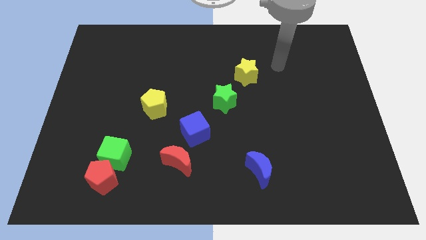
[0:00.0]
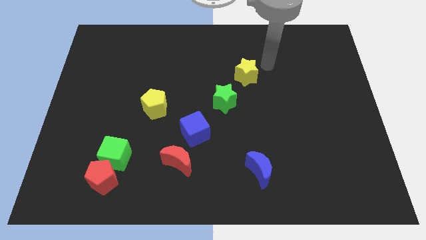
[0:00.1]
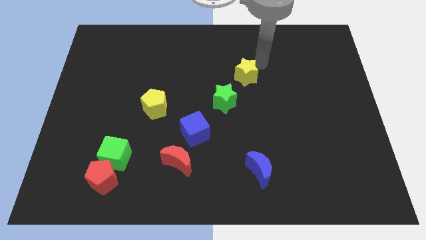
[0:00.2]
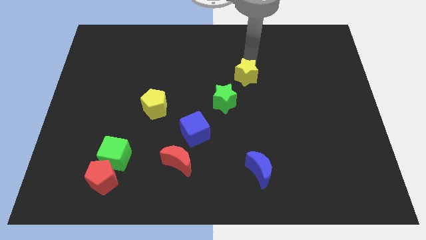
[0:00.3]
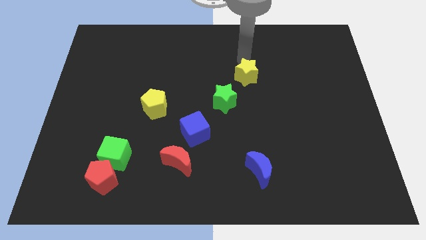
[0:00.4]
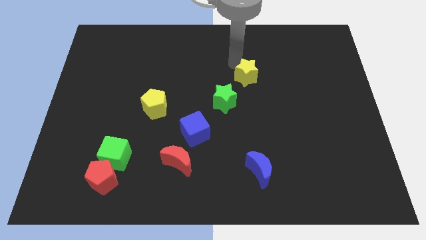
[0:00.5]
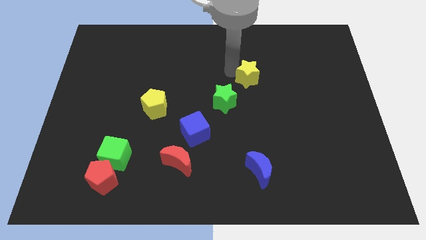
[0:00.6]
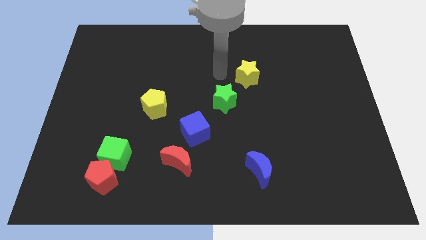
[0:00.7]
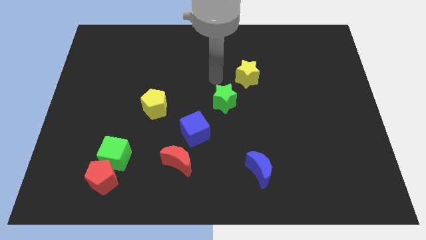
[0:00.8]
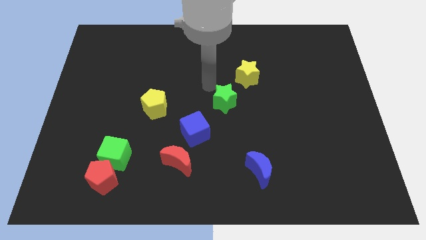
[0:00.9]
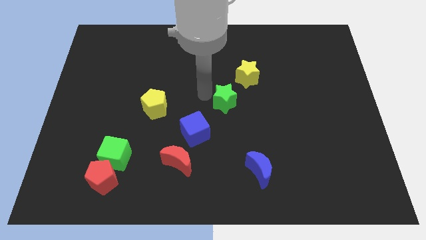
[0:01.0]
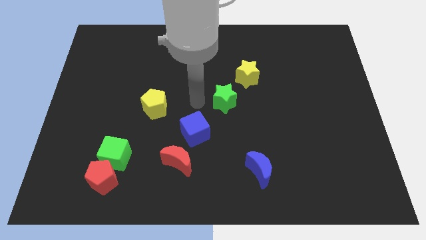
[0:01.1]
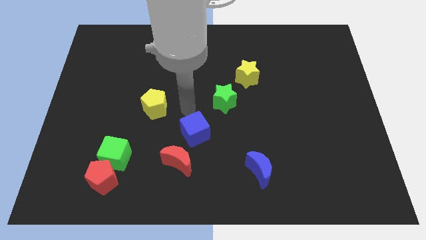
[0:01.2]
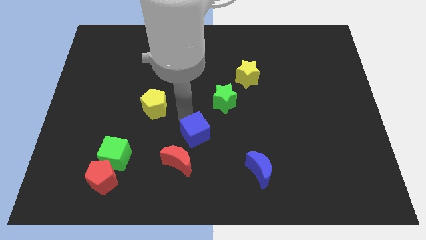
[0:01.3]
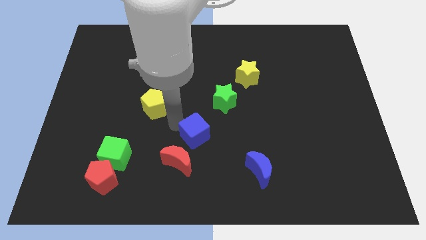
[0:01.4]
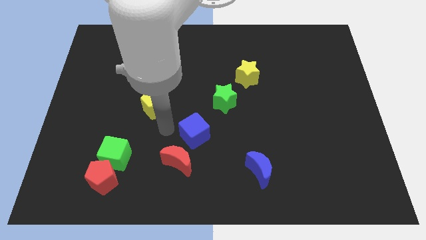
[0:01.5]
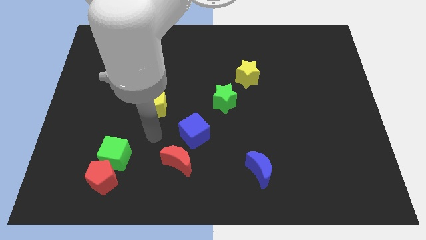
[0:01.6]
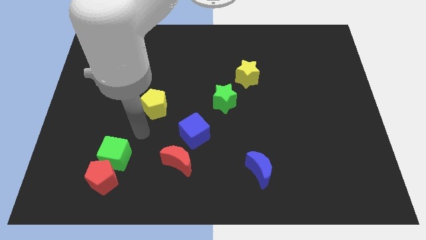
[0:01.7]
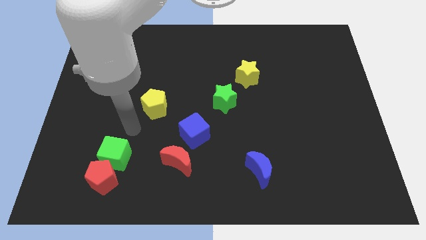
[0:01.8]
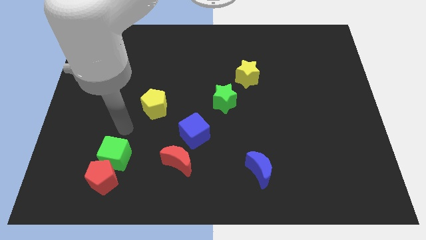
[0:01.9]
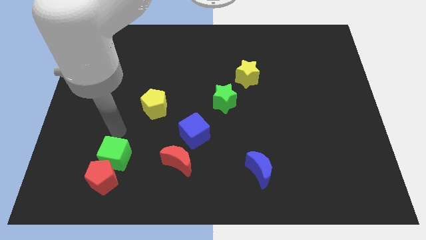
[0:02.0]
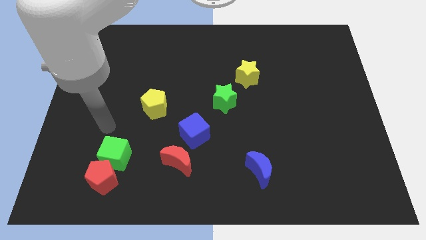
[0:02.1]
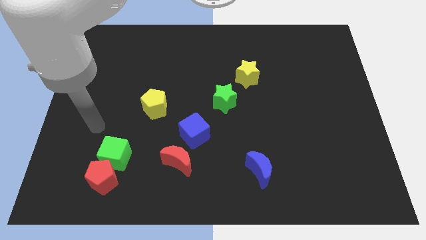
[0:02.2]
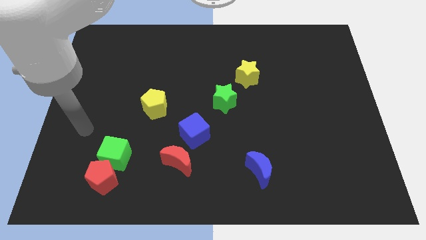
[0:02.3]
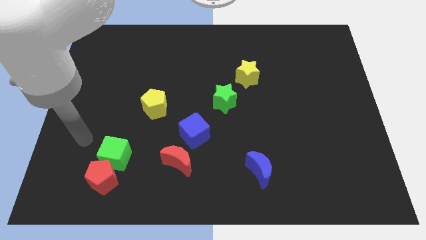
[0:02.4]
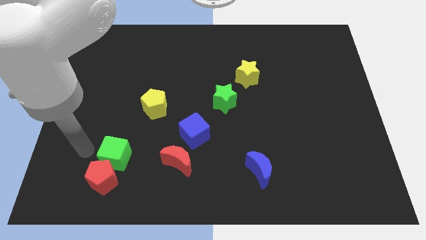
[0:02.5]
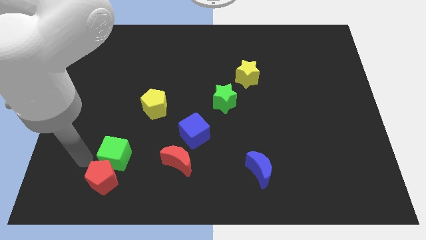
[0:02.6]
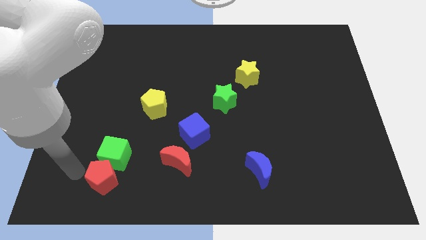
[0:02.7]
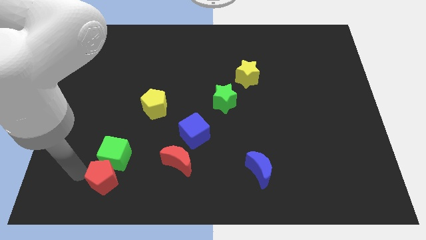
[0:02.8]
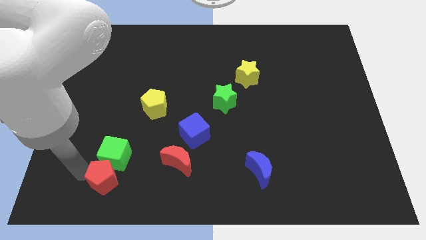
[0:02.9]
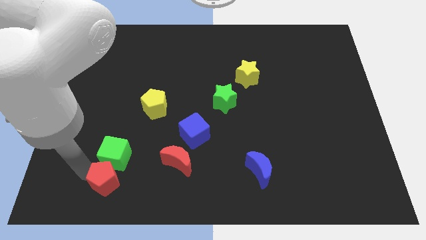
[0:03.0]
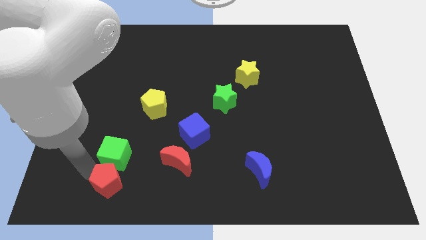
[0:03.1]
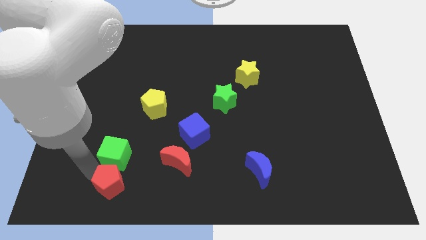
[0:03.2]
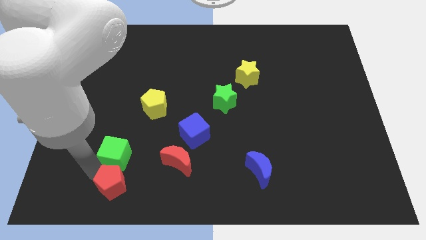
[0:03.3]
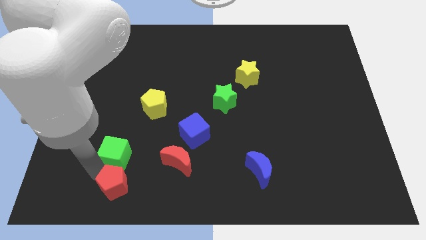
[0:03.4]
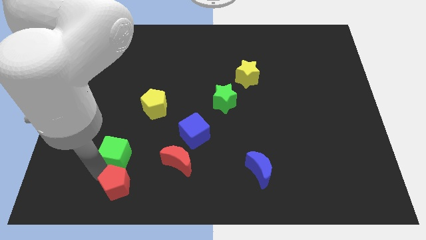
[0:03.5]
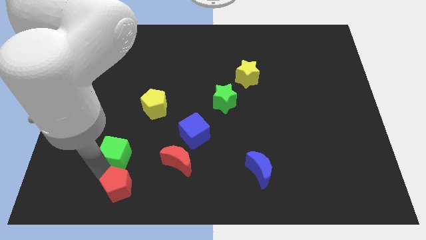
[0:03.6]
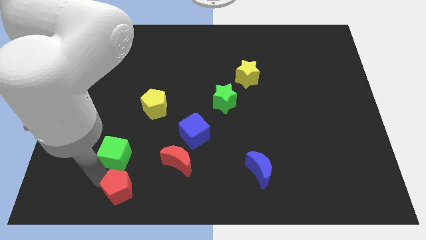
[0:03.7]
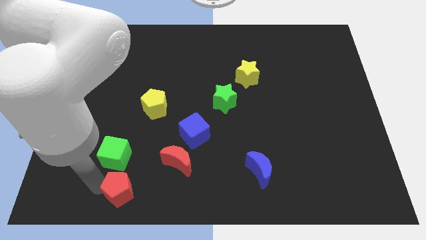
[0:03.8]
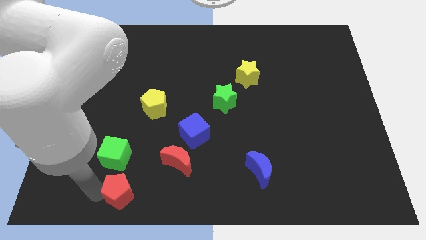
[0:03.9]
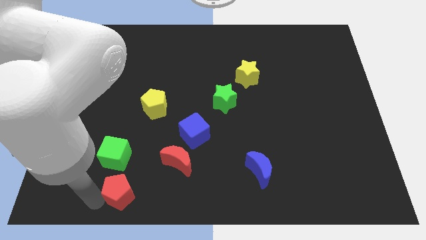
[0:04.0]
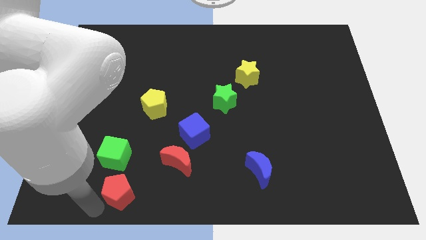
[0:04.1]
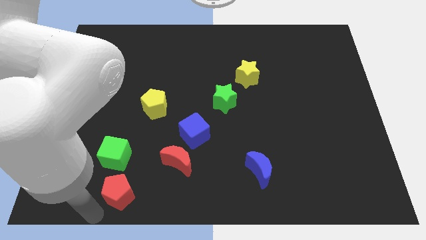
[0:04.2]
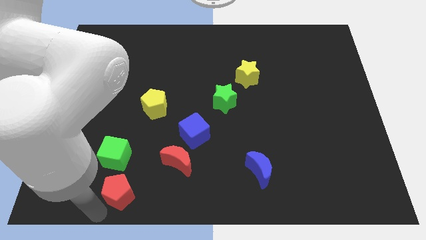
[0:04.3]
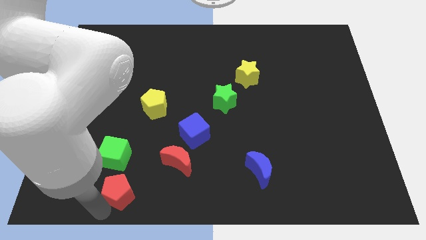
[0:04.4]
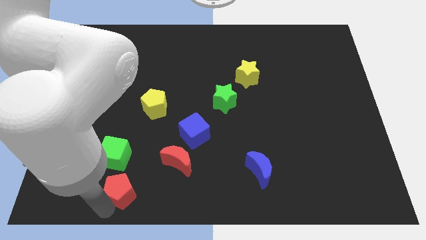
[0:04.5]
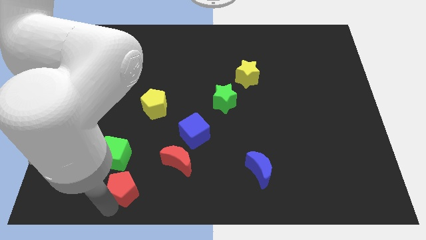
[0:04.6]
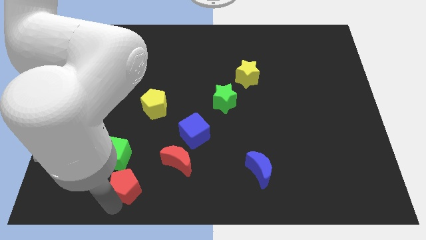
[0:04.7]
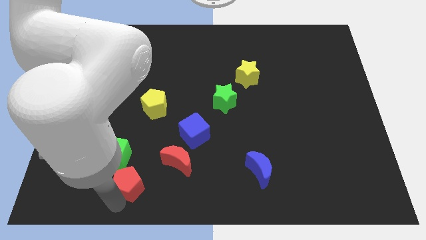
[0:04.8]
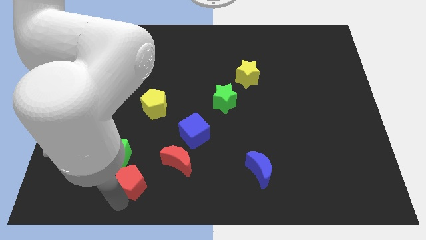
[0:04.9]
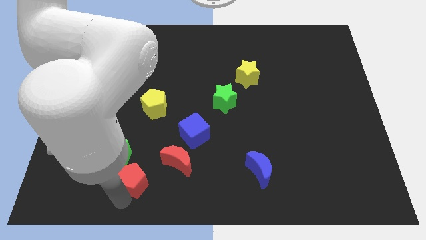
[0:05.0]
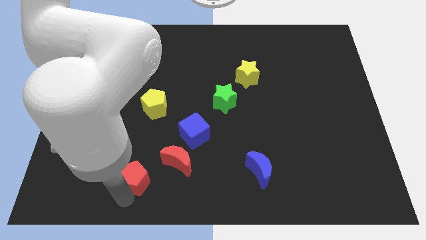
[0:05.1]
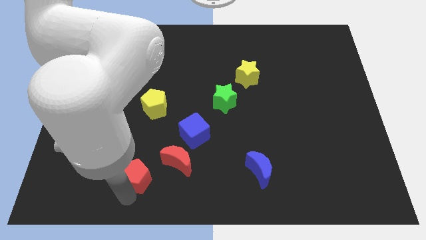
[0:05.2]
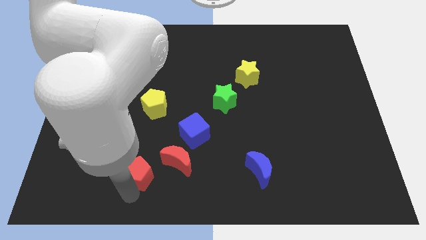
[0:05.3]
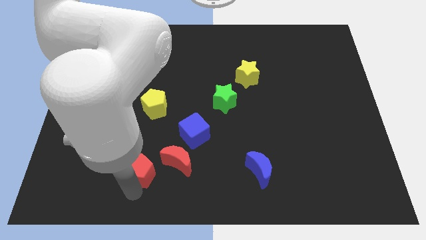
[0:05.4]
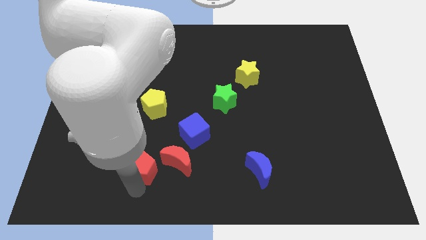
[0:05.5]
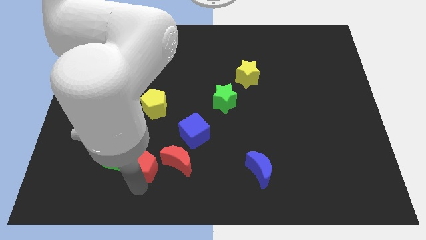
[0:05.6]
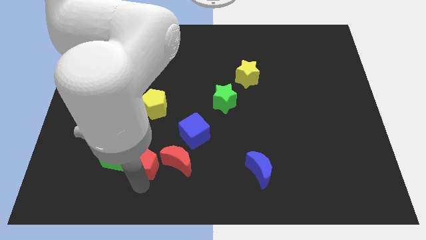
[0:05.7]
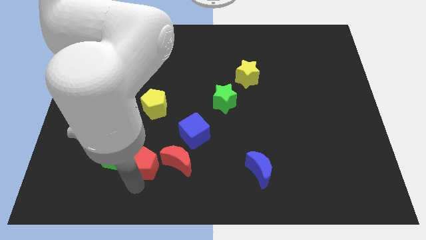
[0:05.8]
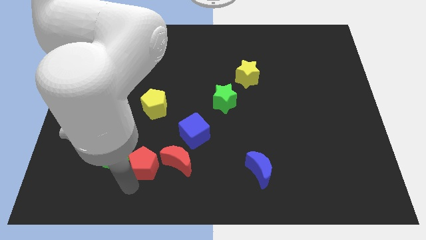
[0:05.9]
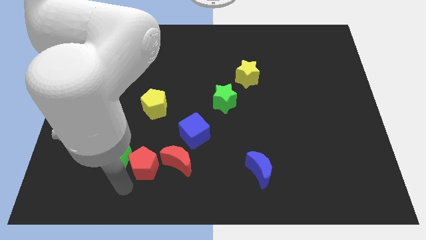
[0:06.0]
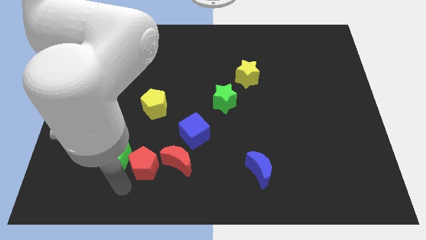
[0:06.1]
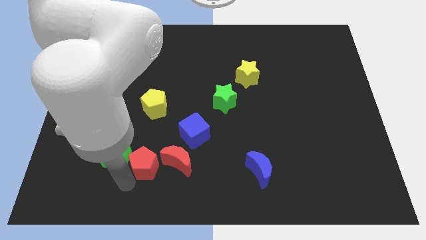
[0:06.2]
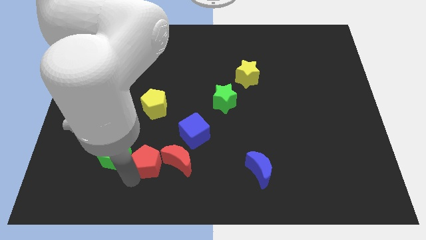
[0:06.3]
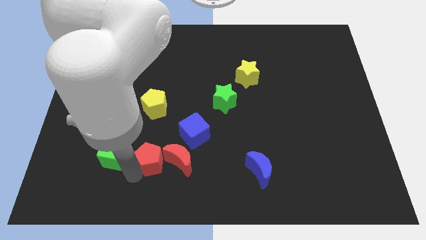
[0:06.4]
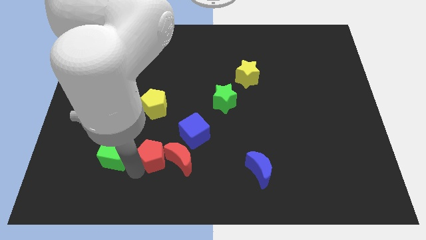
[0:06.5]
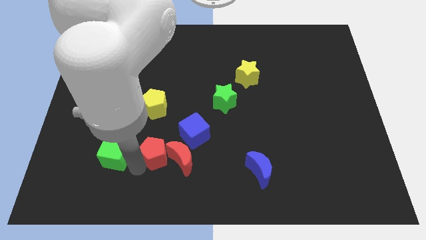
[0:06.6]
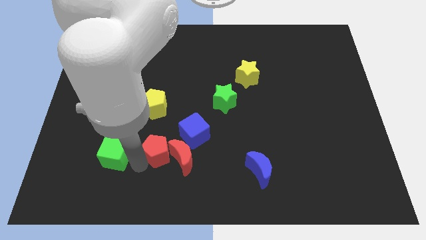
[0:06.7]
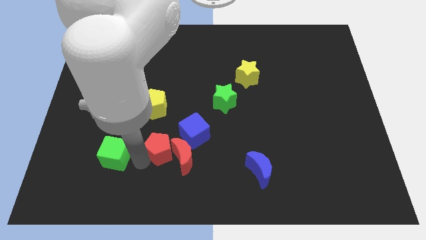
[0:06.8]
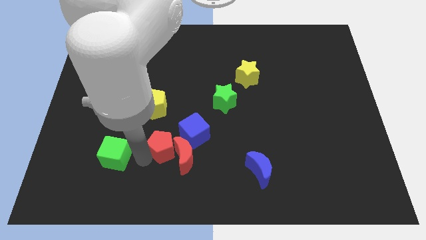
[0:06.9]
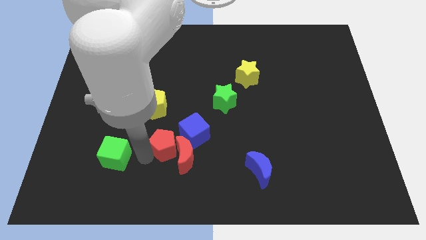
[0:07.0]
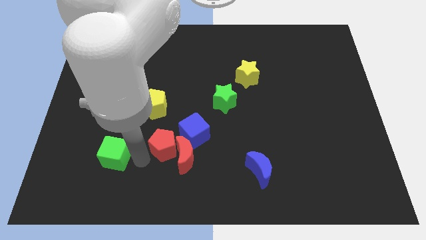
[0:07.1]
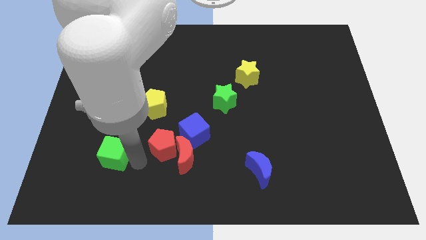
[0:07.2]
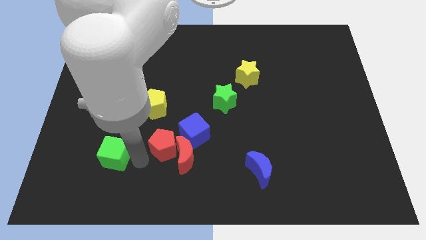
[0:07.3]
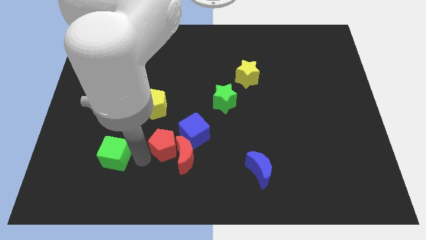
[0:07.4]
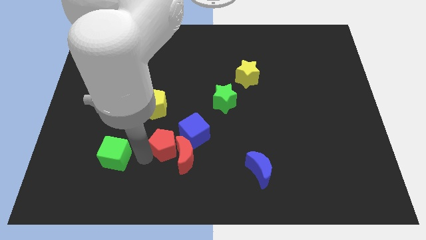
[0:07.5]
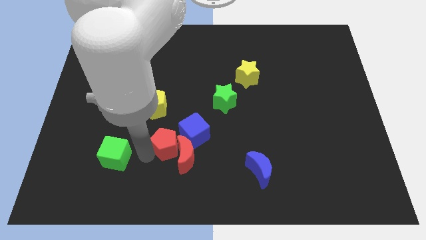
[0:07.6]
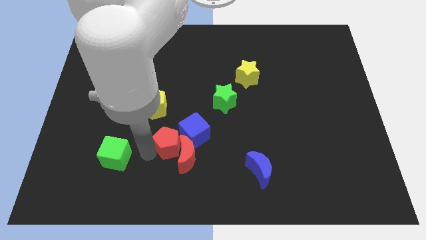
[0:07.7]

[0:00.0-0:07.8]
slide the red pentagon close to the blue cube

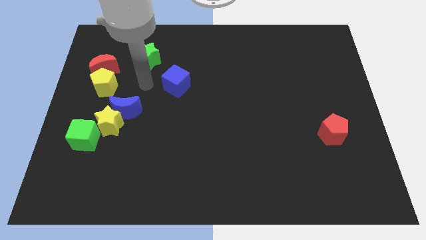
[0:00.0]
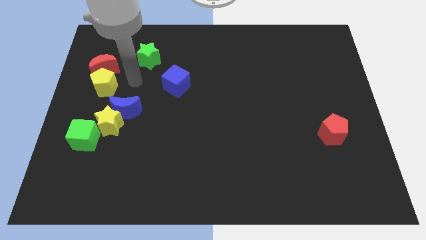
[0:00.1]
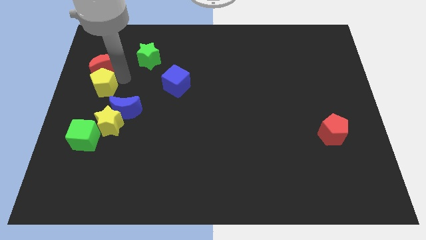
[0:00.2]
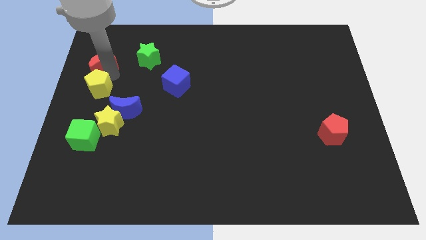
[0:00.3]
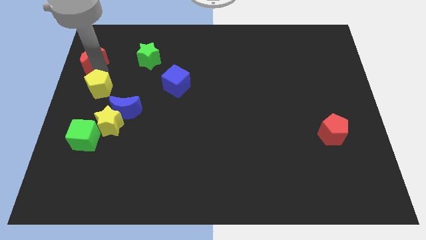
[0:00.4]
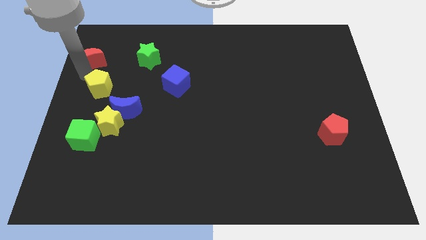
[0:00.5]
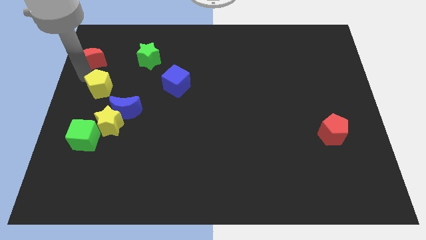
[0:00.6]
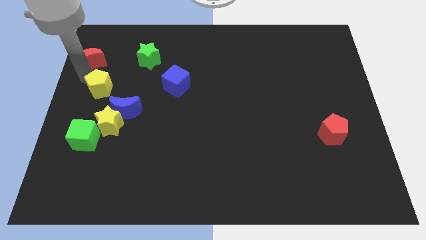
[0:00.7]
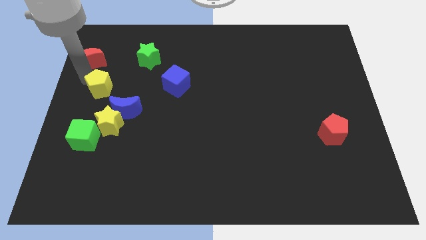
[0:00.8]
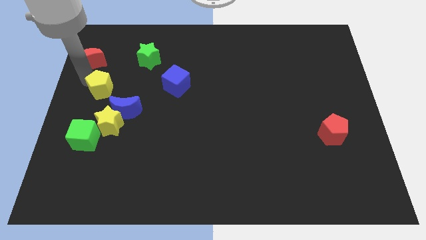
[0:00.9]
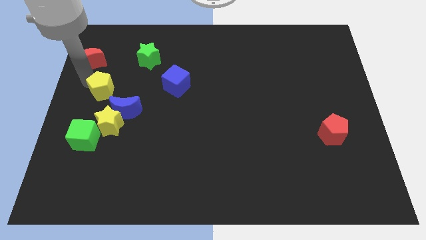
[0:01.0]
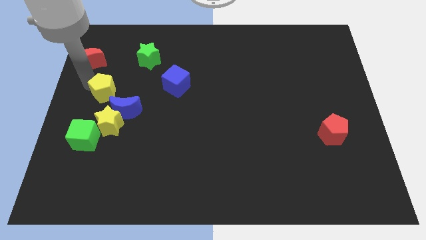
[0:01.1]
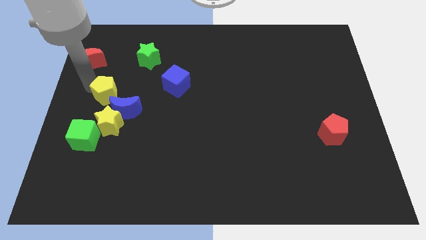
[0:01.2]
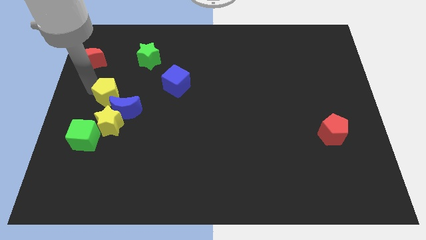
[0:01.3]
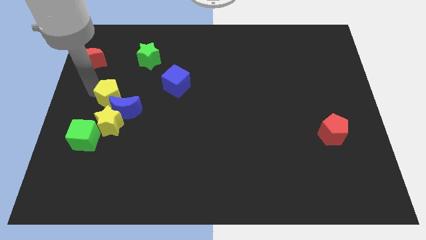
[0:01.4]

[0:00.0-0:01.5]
put the yellow pentagon close to the blue moon
